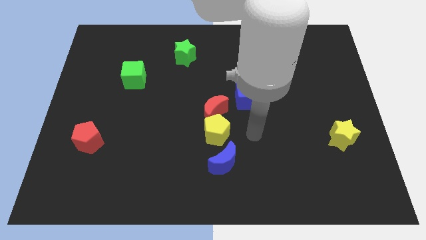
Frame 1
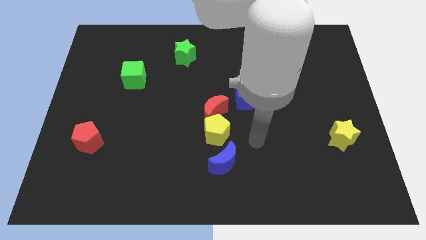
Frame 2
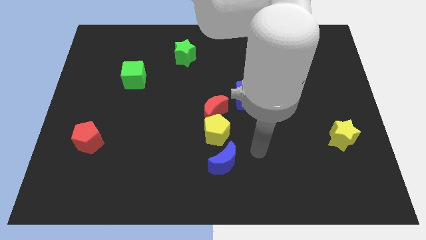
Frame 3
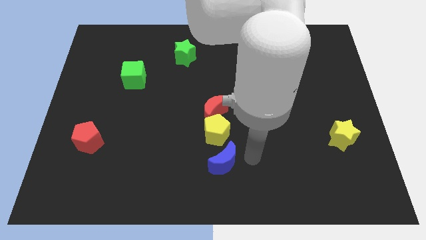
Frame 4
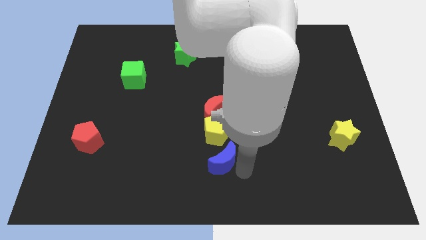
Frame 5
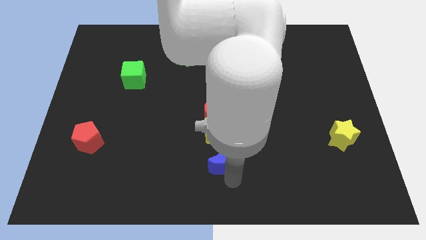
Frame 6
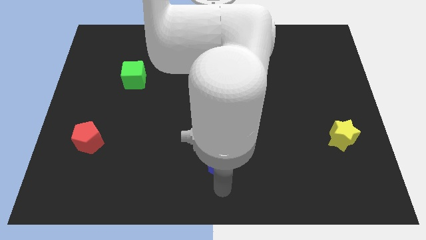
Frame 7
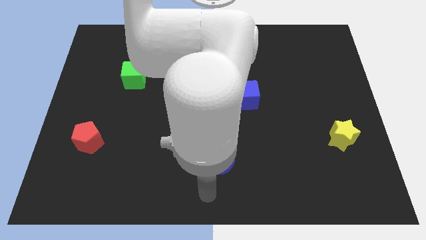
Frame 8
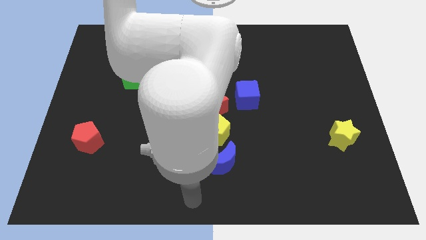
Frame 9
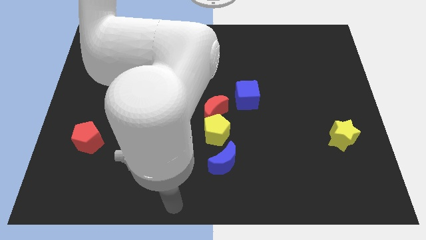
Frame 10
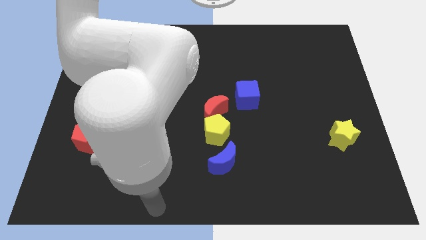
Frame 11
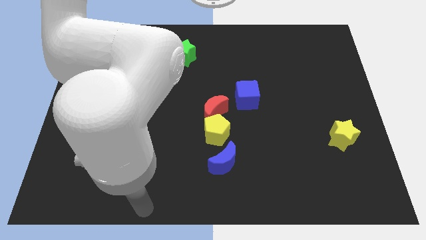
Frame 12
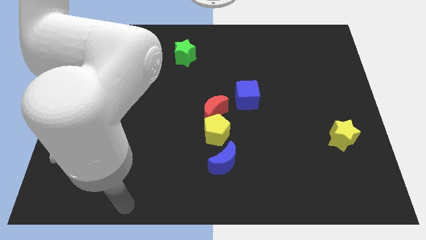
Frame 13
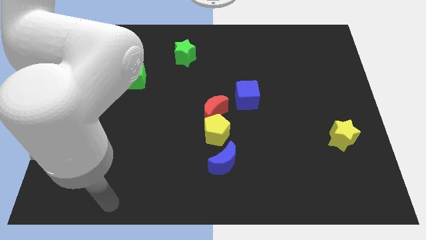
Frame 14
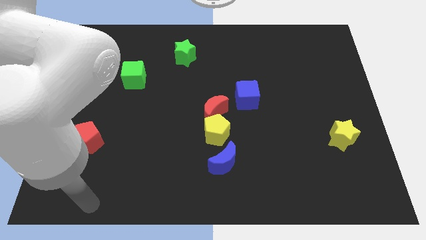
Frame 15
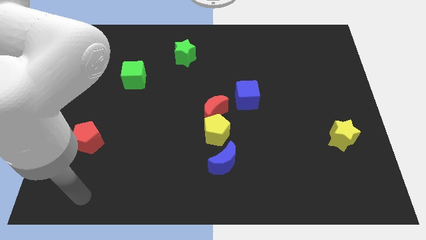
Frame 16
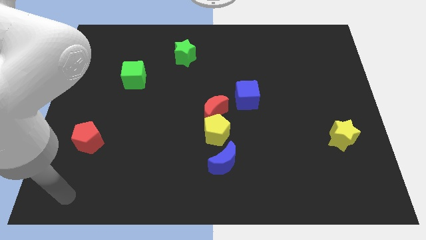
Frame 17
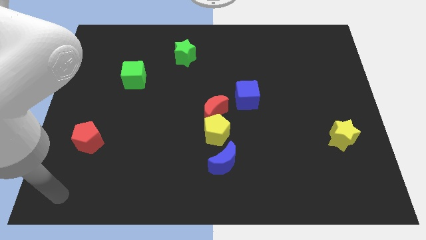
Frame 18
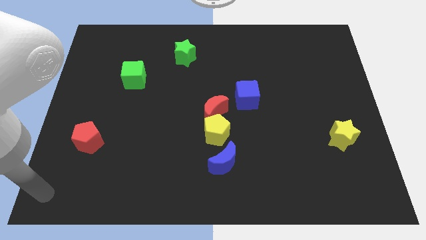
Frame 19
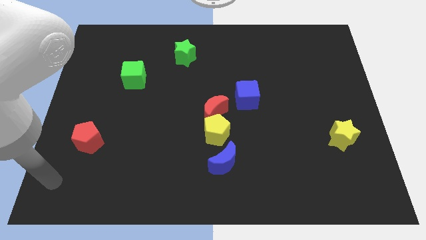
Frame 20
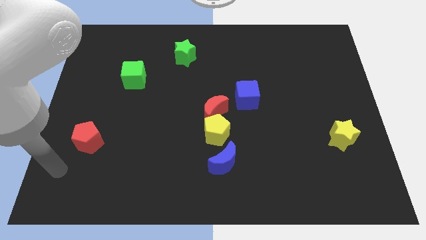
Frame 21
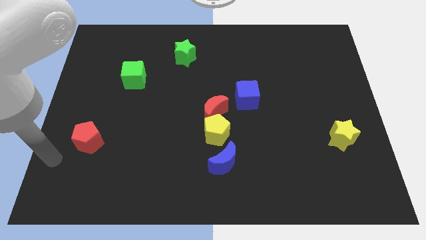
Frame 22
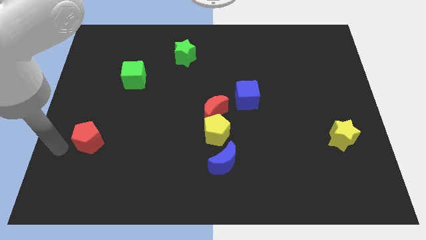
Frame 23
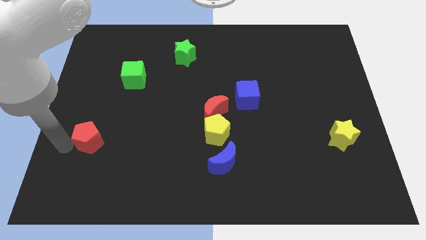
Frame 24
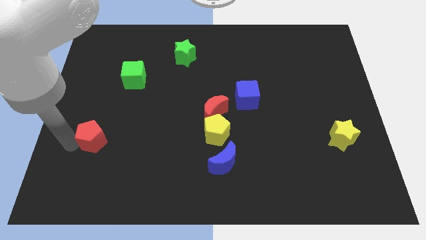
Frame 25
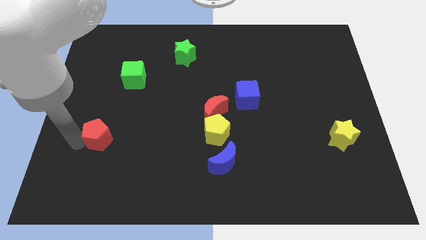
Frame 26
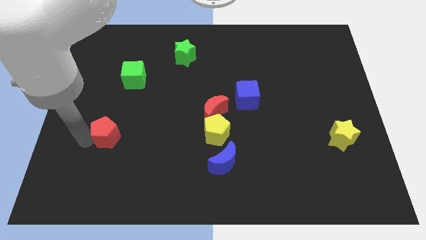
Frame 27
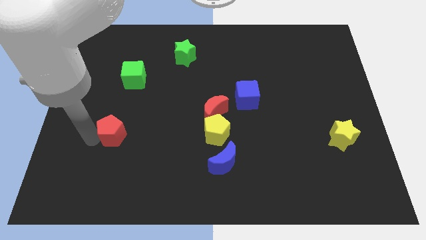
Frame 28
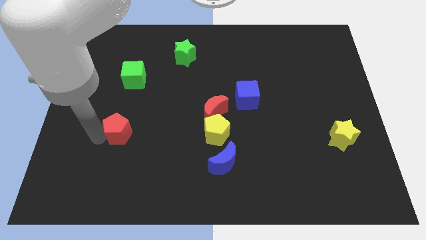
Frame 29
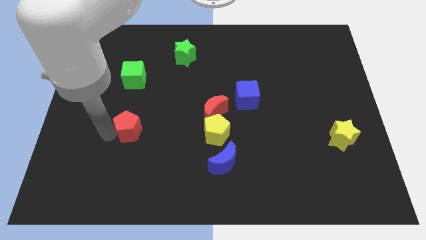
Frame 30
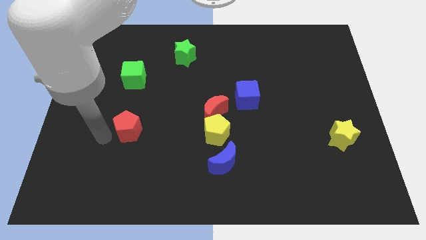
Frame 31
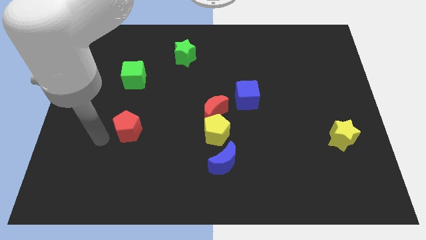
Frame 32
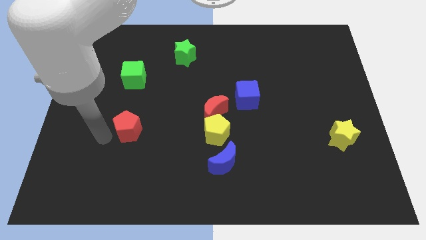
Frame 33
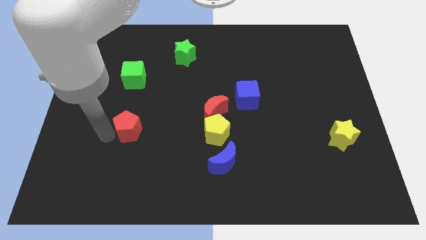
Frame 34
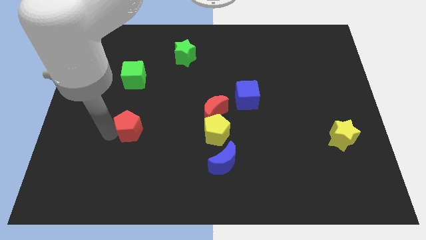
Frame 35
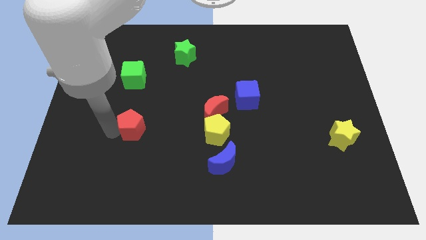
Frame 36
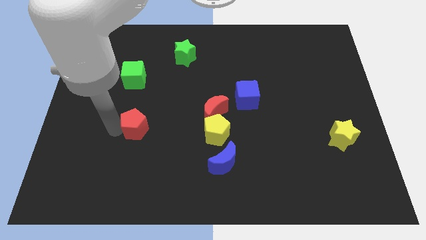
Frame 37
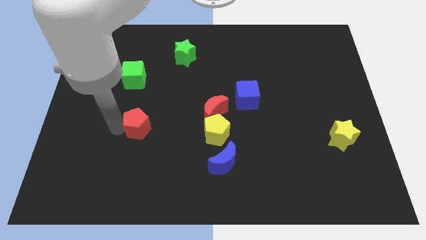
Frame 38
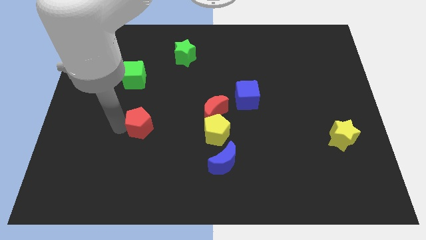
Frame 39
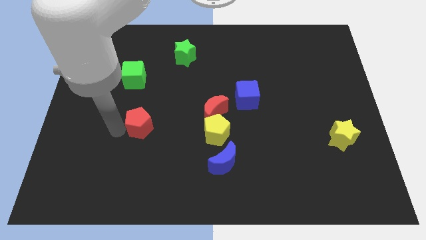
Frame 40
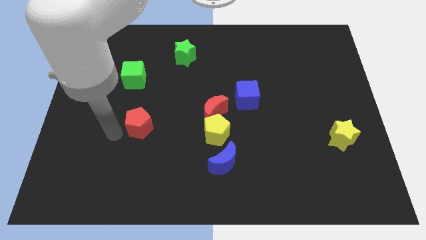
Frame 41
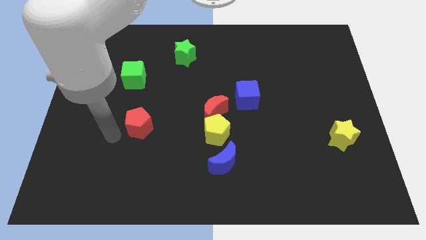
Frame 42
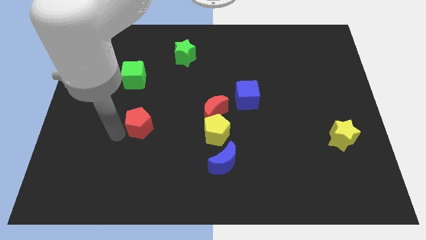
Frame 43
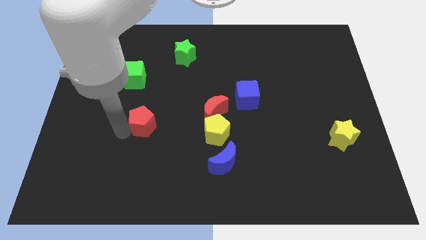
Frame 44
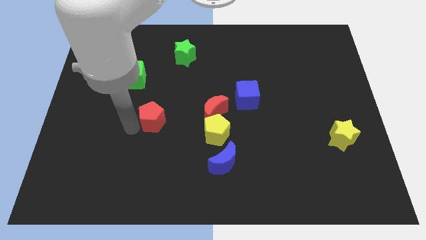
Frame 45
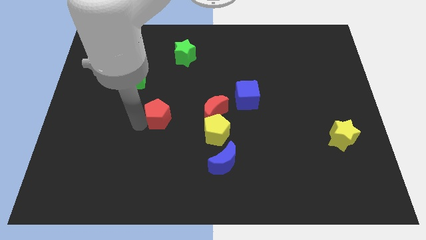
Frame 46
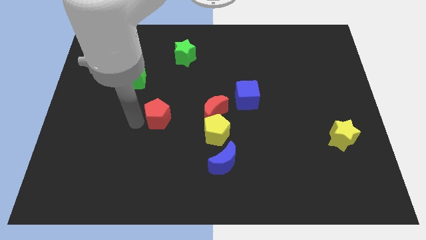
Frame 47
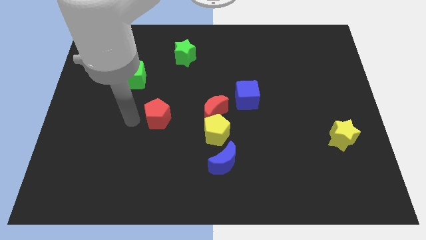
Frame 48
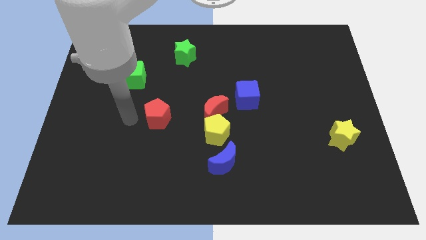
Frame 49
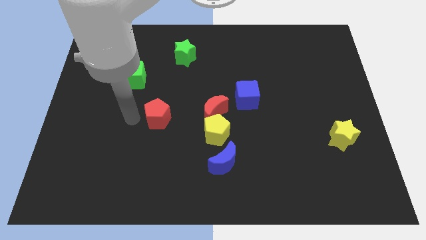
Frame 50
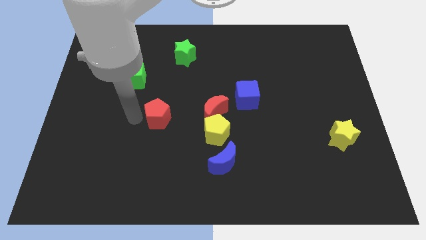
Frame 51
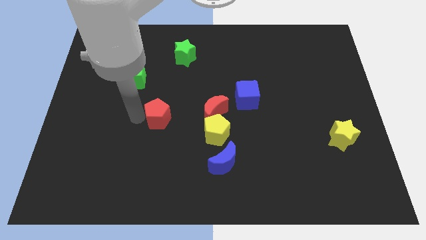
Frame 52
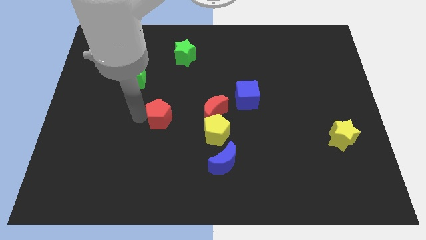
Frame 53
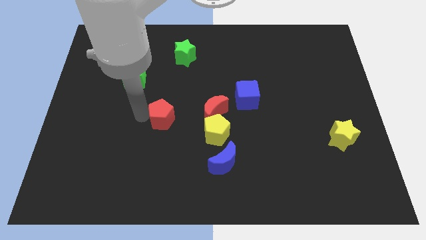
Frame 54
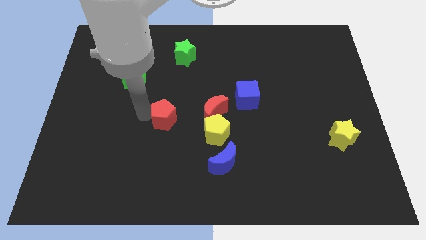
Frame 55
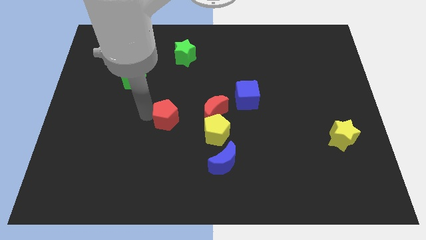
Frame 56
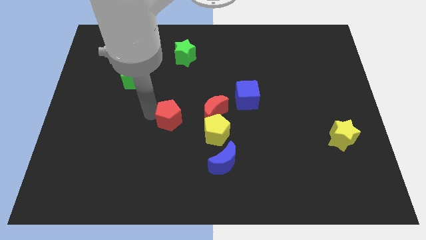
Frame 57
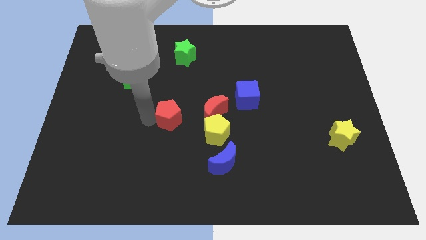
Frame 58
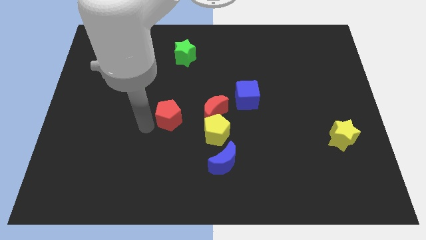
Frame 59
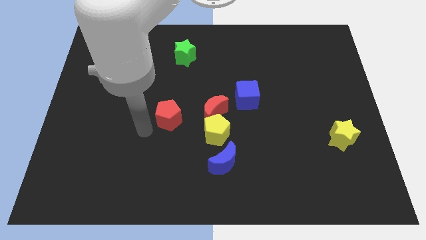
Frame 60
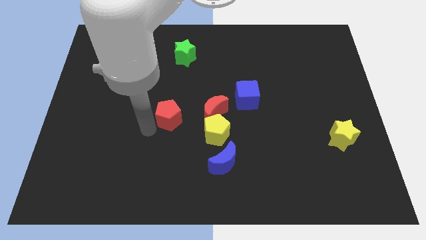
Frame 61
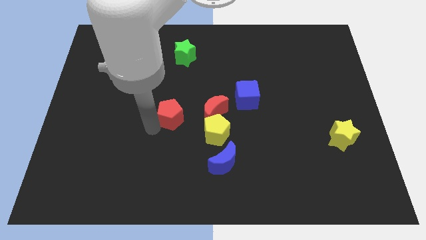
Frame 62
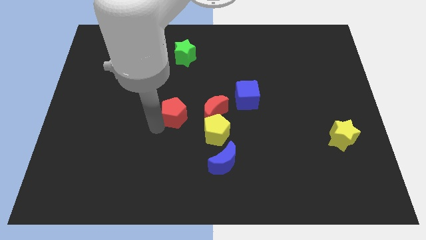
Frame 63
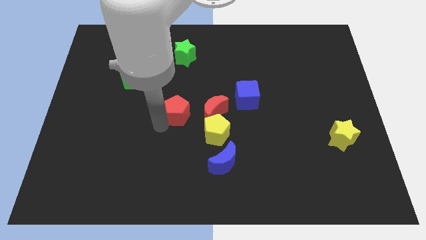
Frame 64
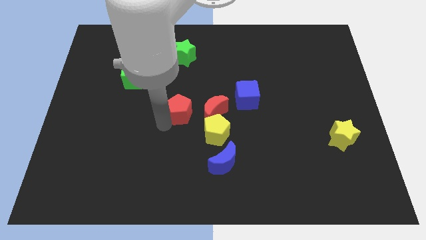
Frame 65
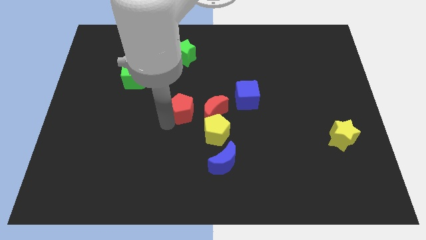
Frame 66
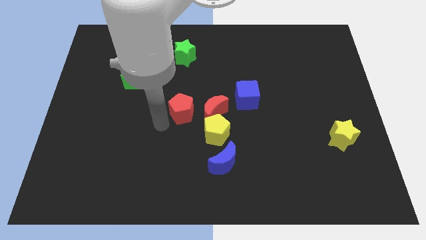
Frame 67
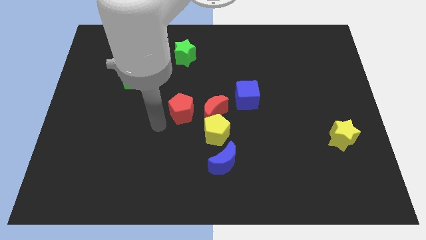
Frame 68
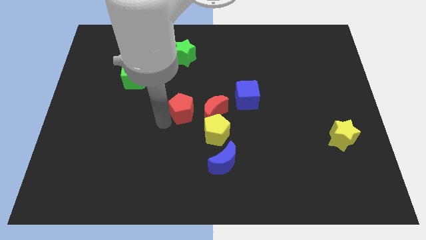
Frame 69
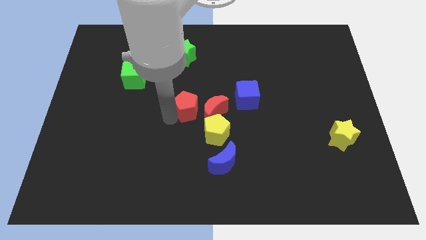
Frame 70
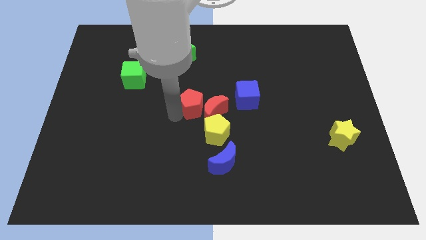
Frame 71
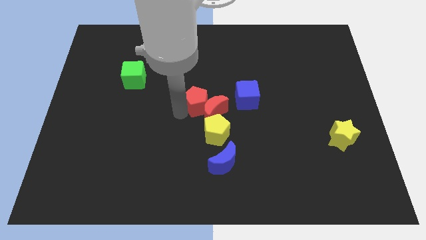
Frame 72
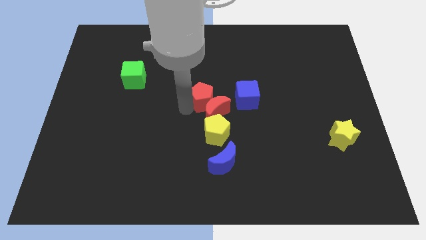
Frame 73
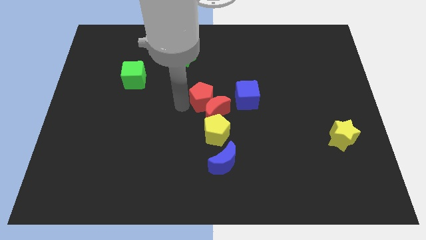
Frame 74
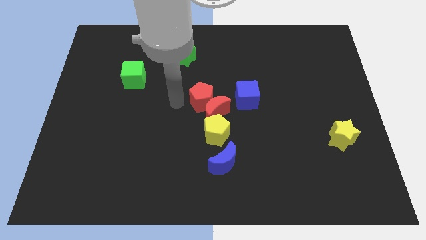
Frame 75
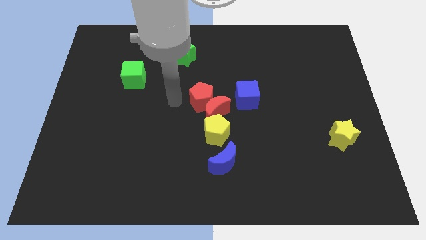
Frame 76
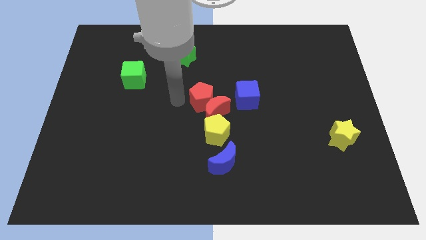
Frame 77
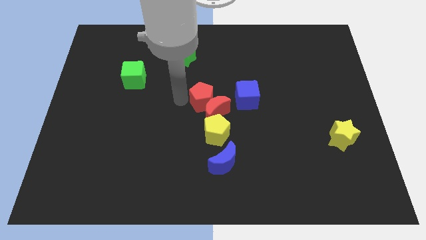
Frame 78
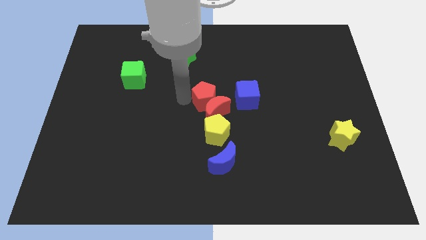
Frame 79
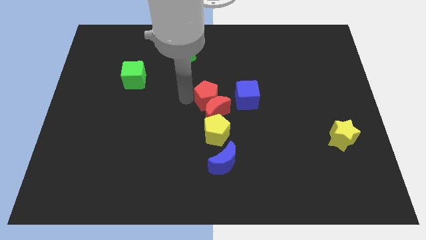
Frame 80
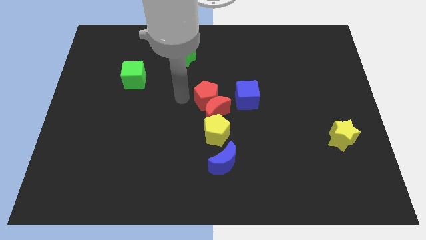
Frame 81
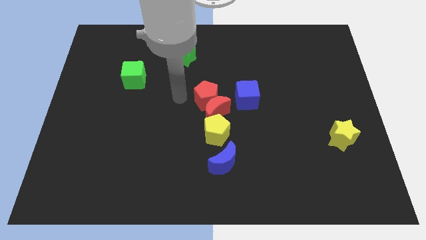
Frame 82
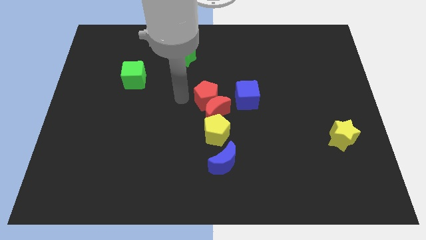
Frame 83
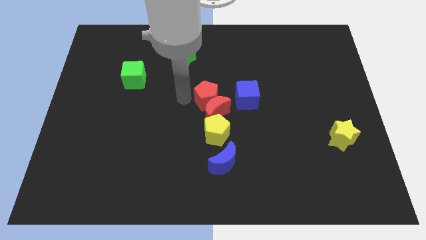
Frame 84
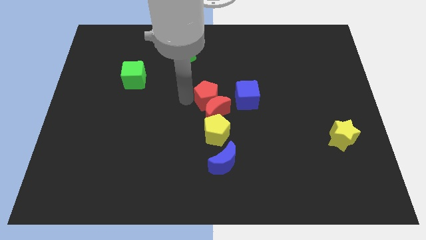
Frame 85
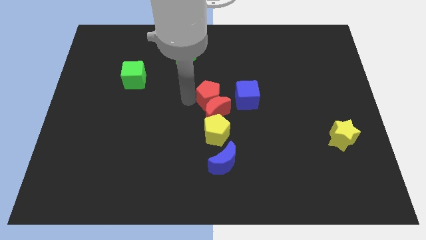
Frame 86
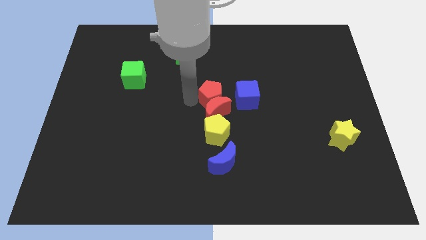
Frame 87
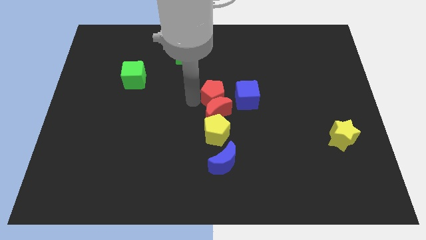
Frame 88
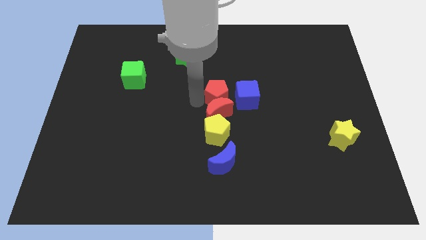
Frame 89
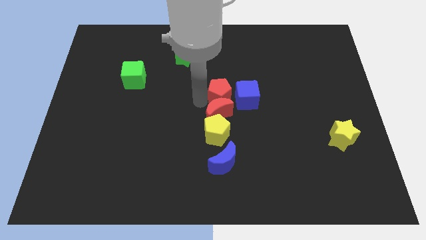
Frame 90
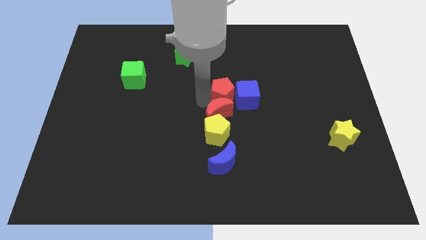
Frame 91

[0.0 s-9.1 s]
push the red pentagon towards the blue cube
